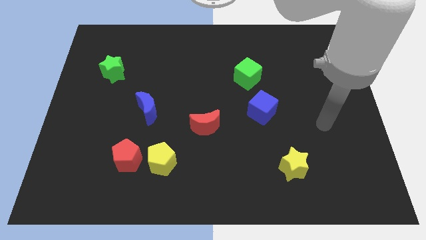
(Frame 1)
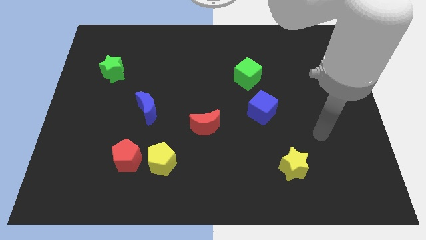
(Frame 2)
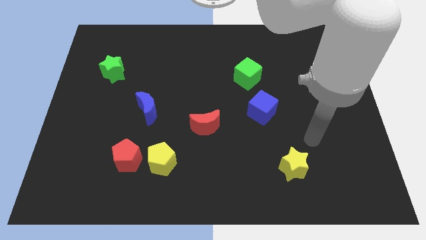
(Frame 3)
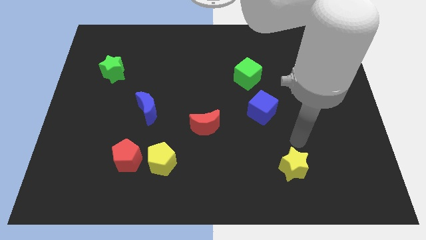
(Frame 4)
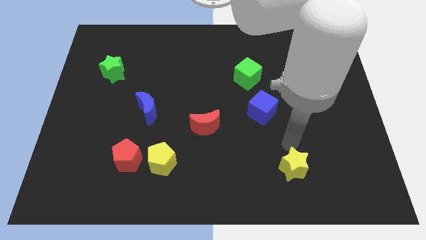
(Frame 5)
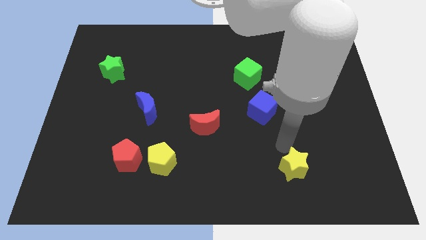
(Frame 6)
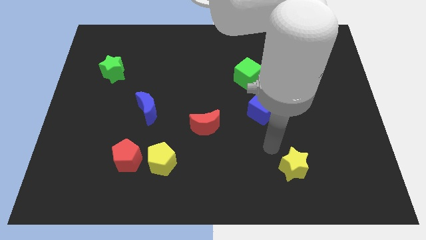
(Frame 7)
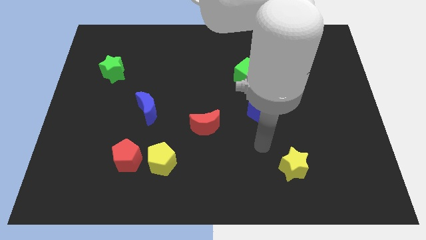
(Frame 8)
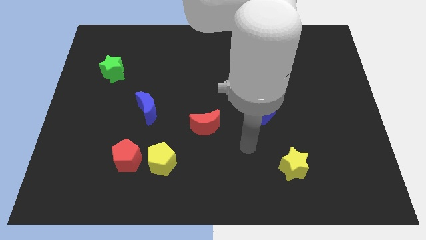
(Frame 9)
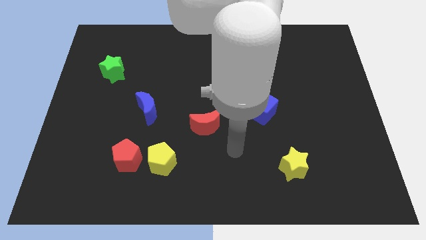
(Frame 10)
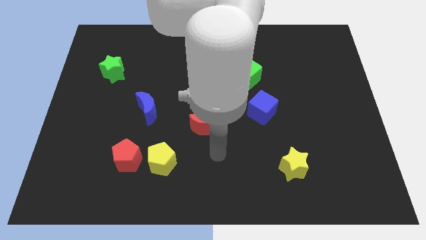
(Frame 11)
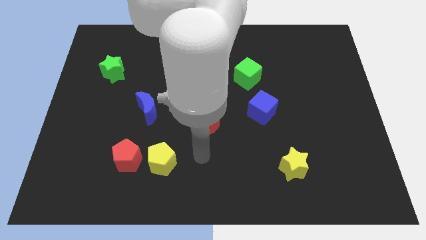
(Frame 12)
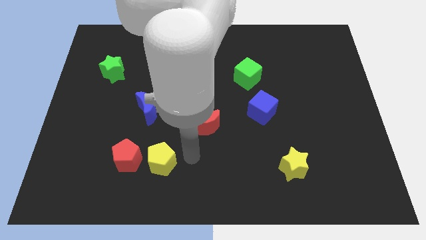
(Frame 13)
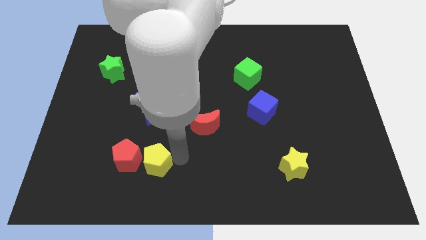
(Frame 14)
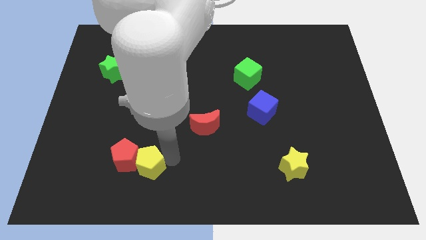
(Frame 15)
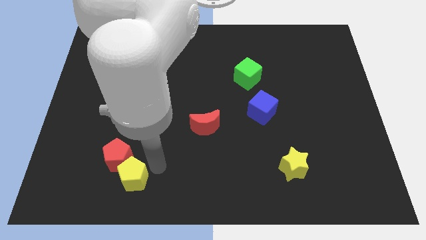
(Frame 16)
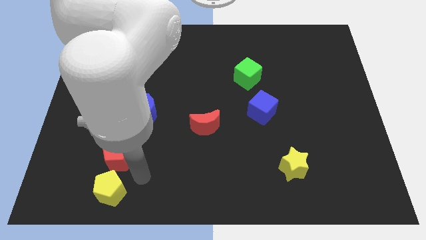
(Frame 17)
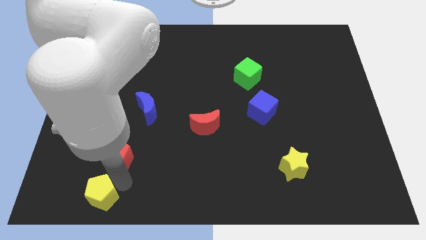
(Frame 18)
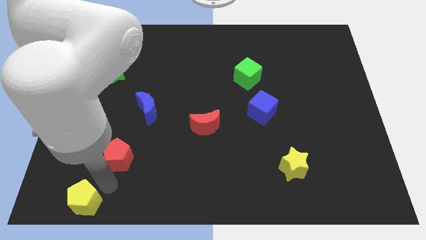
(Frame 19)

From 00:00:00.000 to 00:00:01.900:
pull the red pentagon apart from the yellow pentagon

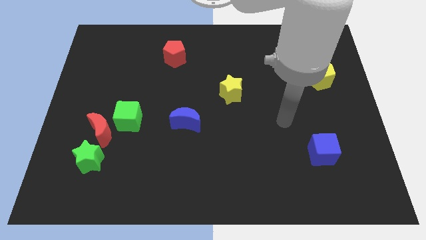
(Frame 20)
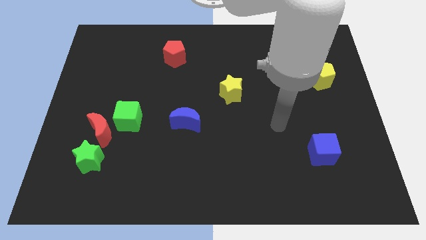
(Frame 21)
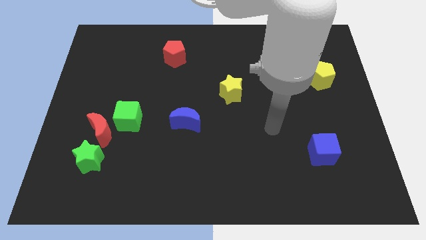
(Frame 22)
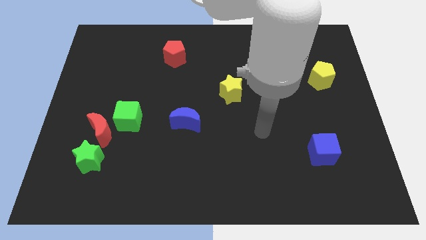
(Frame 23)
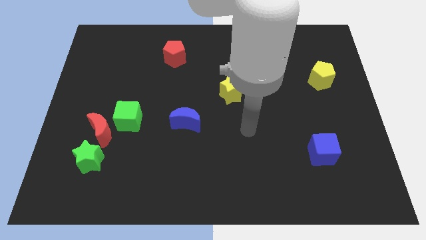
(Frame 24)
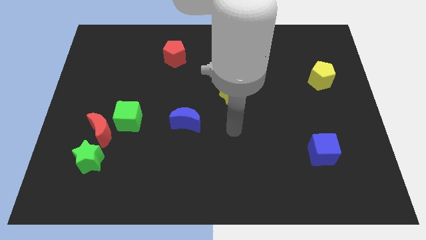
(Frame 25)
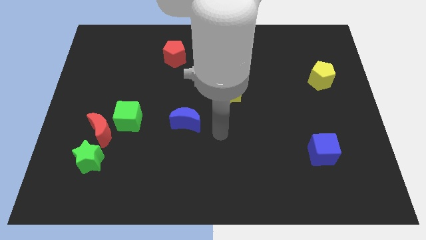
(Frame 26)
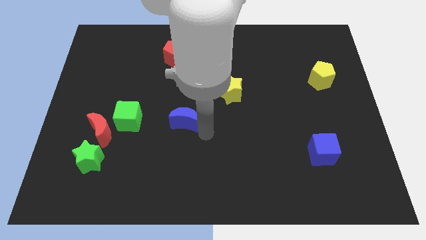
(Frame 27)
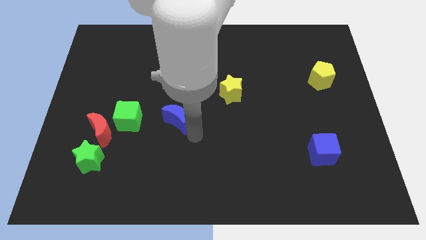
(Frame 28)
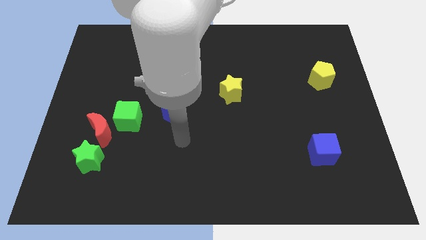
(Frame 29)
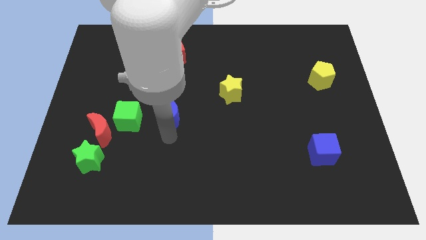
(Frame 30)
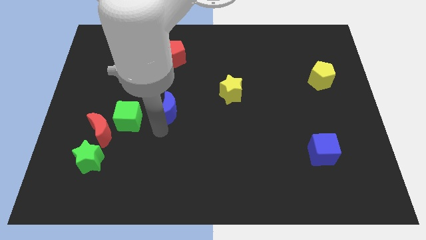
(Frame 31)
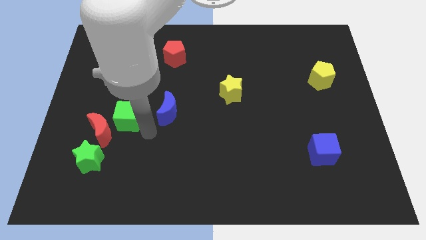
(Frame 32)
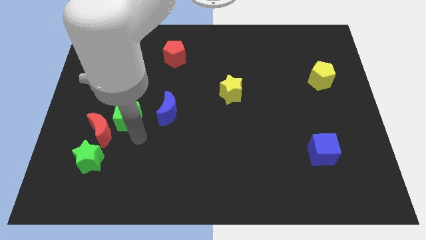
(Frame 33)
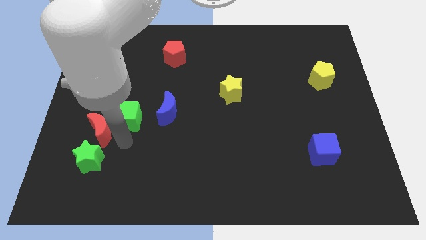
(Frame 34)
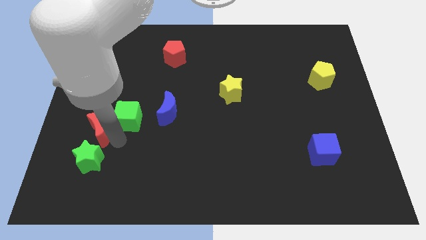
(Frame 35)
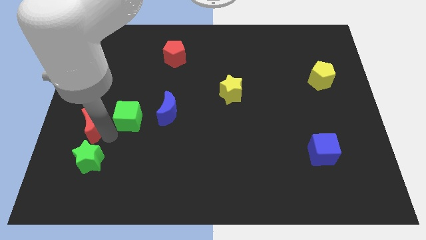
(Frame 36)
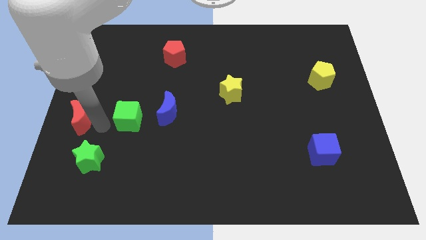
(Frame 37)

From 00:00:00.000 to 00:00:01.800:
move the green cube away from the red moon

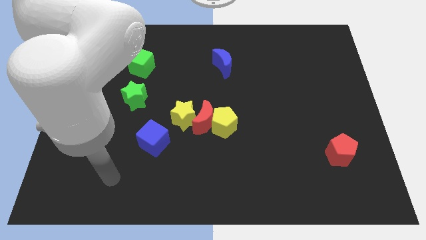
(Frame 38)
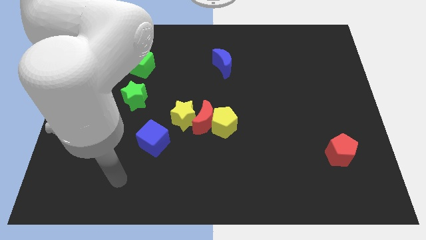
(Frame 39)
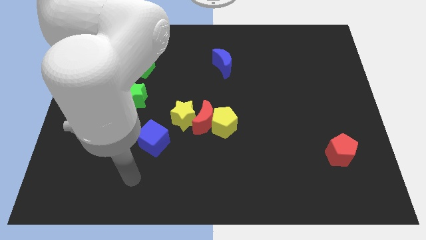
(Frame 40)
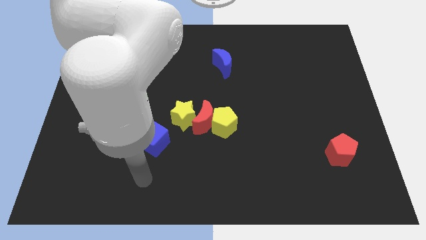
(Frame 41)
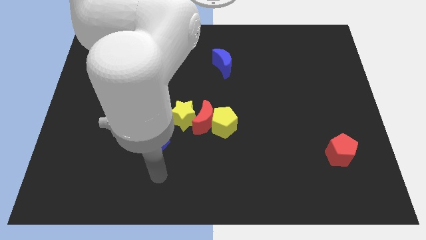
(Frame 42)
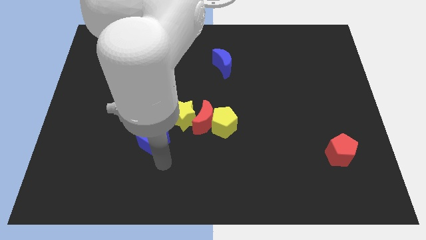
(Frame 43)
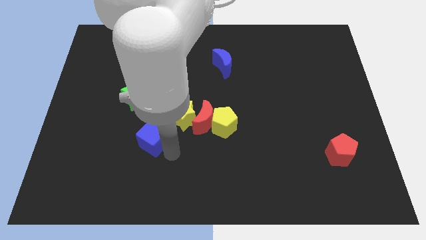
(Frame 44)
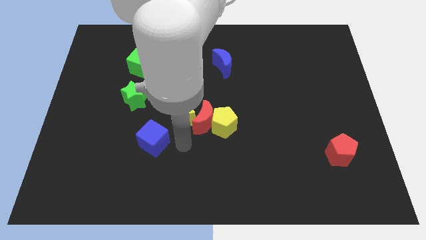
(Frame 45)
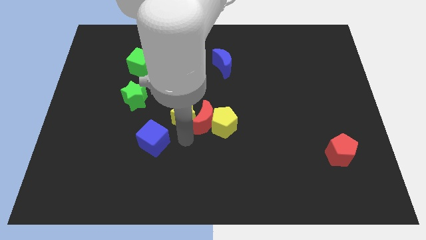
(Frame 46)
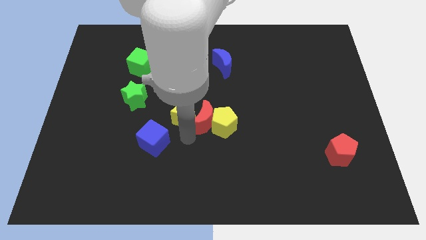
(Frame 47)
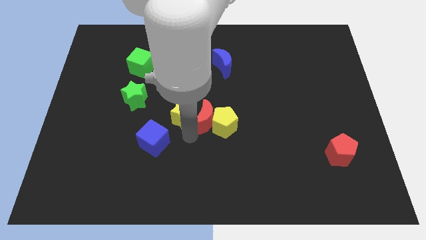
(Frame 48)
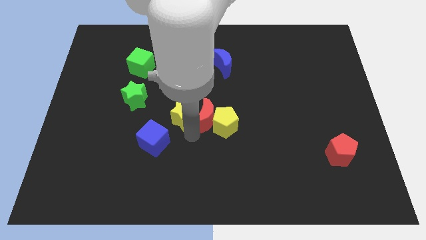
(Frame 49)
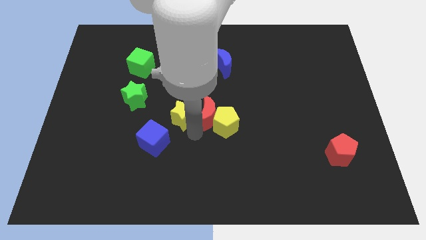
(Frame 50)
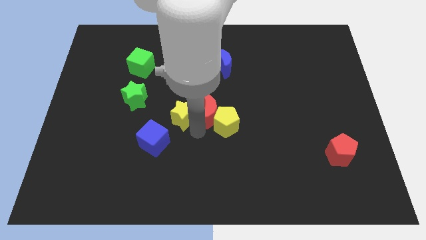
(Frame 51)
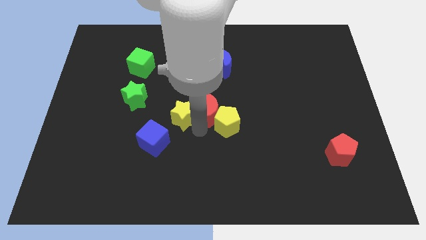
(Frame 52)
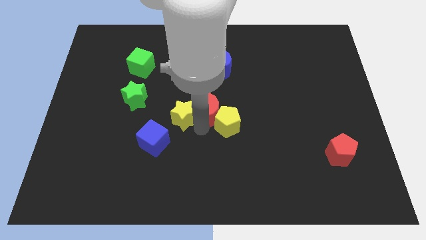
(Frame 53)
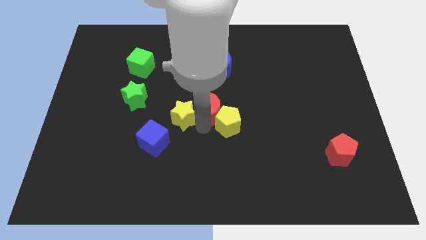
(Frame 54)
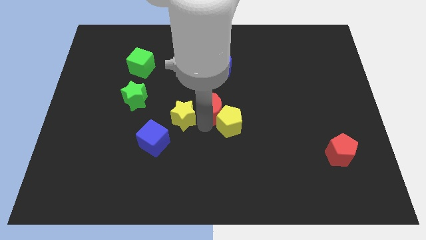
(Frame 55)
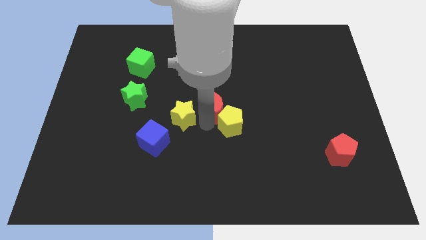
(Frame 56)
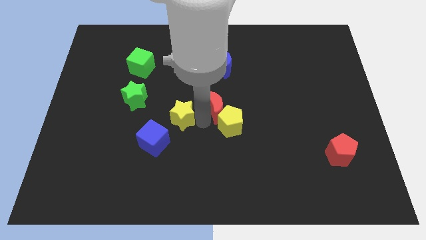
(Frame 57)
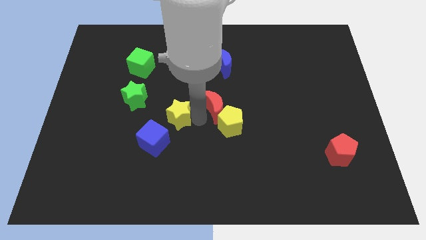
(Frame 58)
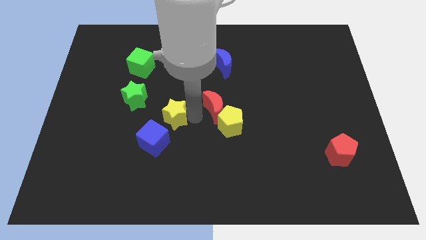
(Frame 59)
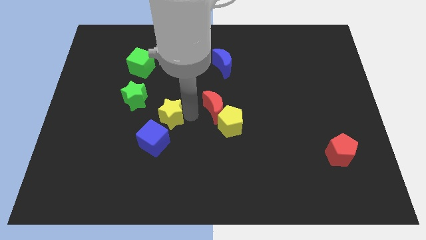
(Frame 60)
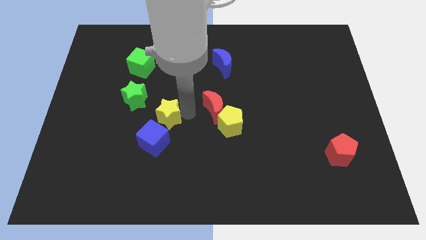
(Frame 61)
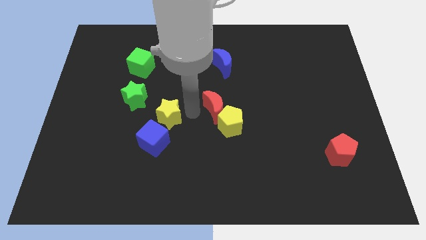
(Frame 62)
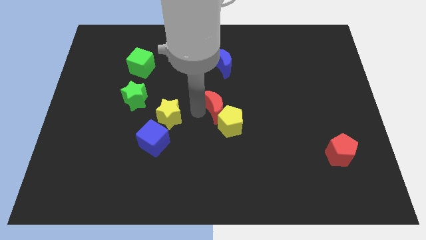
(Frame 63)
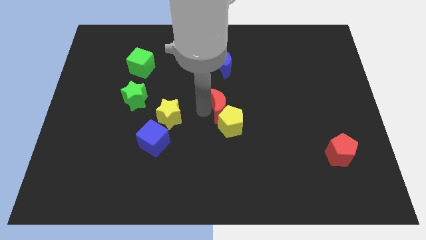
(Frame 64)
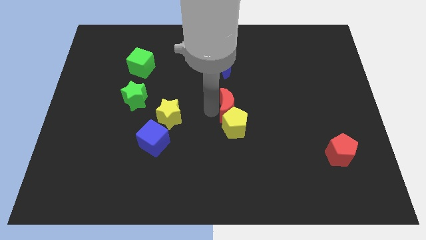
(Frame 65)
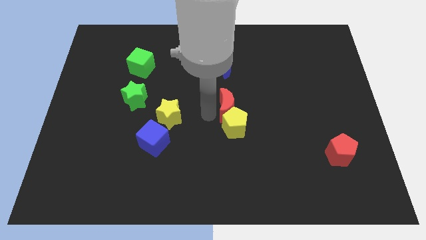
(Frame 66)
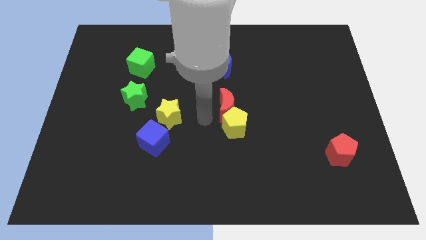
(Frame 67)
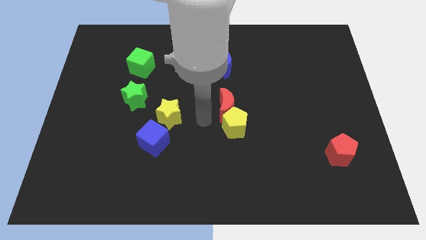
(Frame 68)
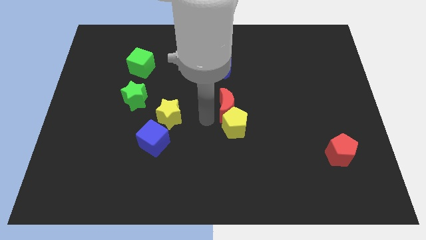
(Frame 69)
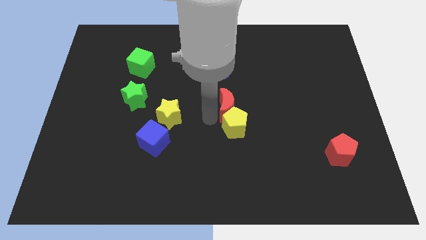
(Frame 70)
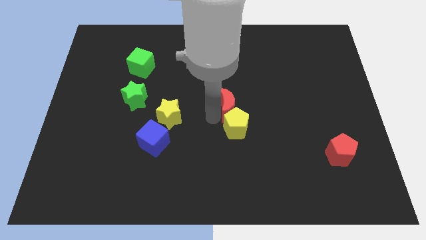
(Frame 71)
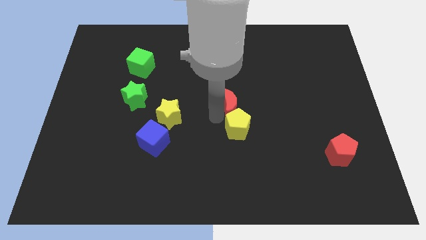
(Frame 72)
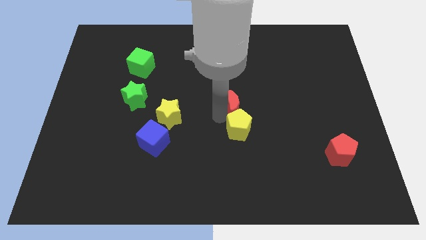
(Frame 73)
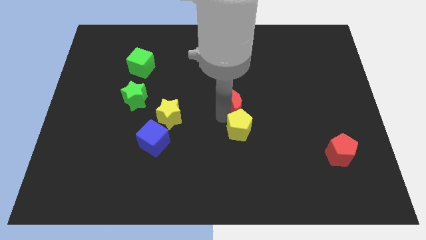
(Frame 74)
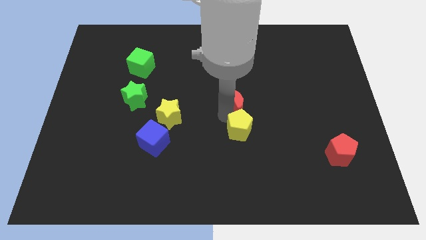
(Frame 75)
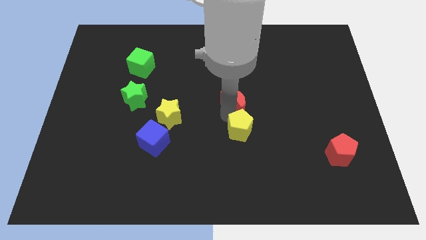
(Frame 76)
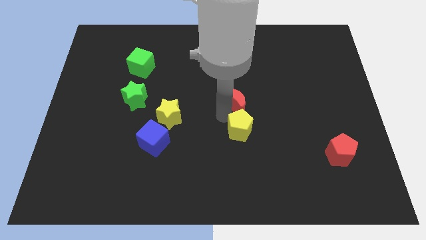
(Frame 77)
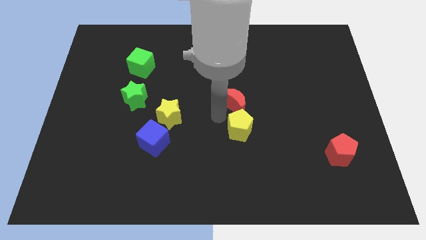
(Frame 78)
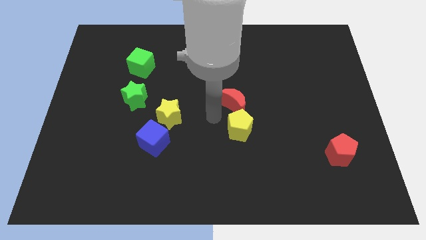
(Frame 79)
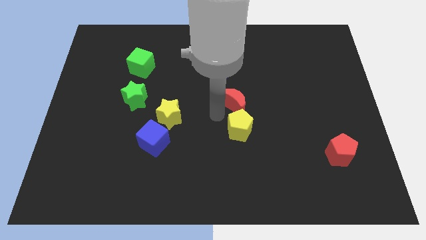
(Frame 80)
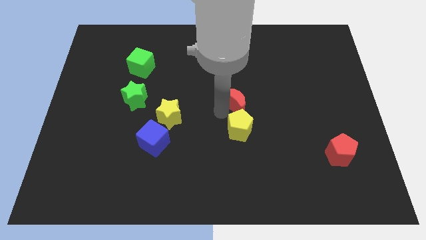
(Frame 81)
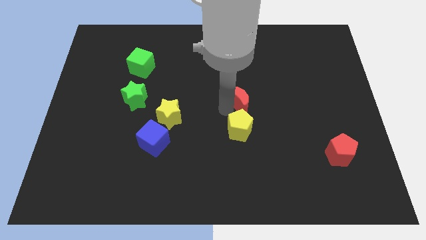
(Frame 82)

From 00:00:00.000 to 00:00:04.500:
move the red moon away from the yellow pentagon and yellow star

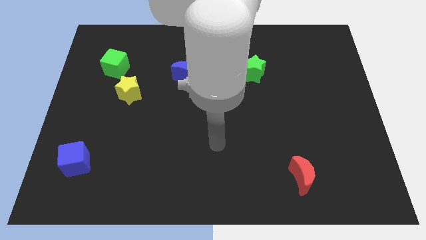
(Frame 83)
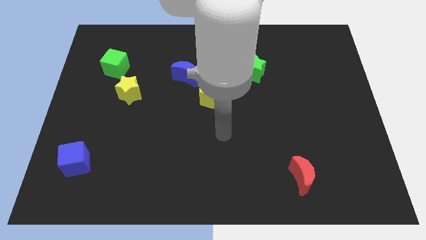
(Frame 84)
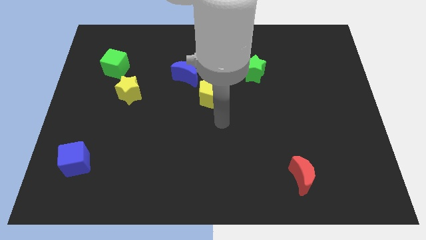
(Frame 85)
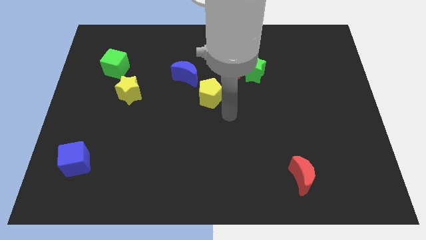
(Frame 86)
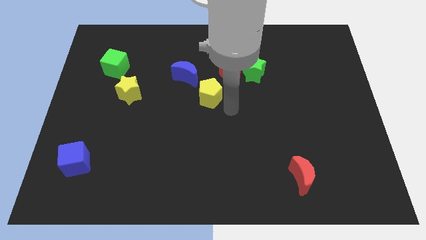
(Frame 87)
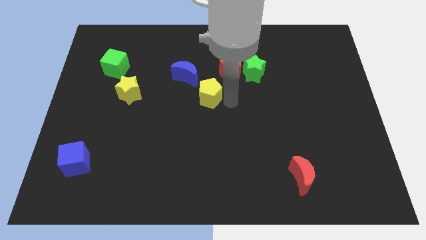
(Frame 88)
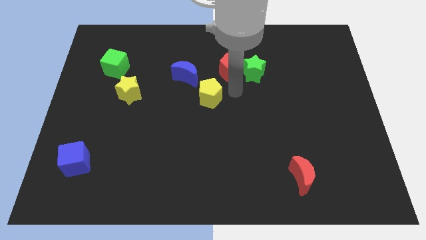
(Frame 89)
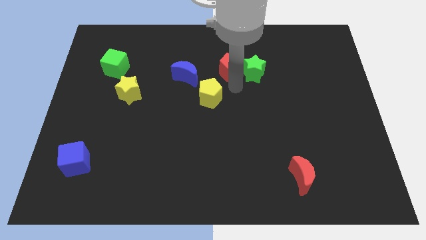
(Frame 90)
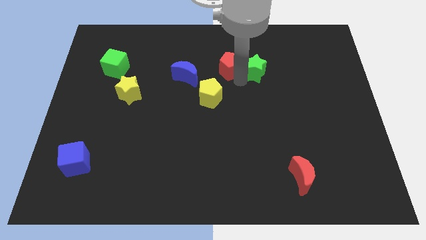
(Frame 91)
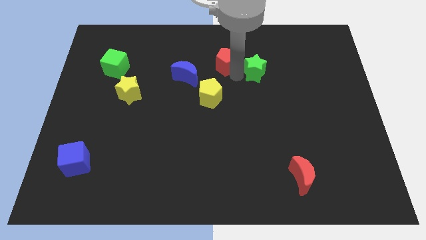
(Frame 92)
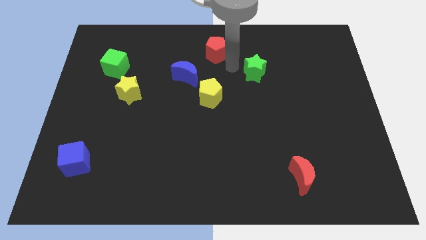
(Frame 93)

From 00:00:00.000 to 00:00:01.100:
pull the green star apart from the red pentagon

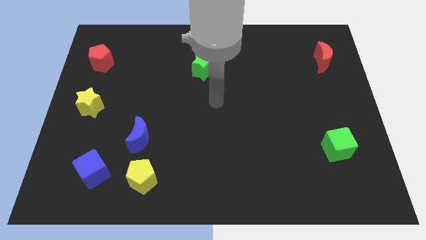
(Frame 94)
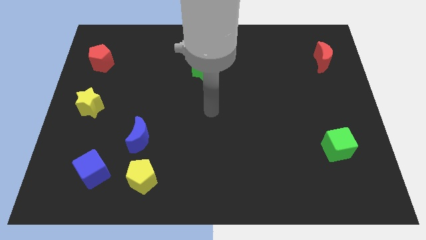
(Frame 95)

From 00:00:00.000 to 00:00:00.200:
separate the blue moon from the yellow pentagon
